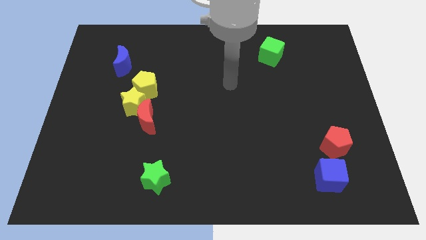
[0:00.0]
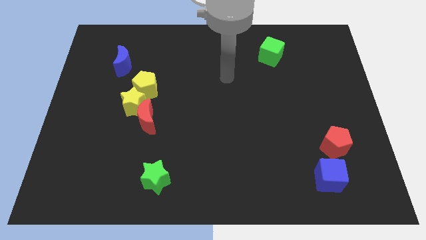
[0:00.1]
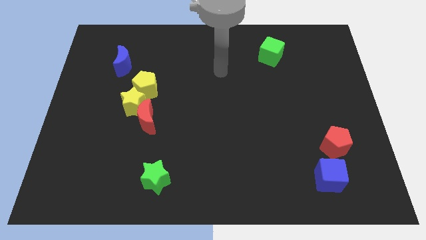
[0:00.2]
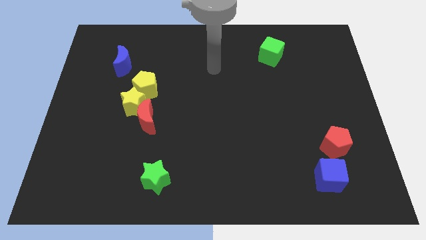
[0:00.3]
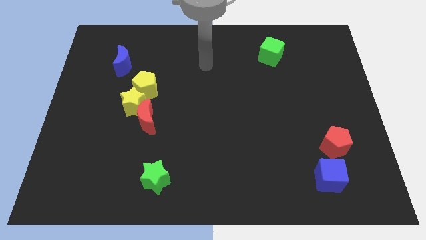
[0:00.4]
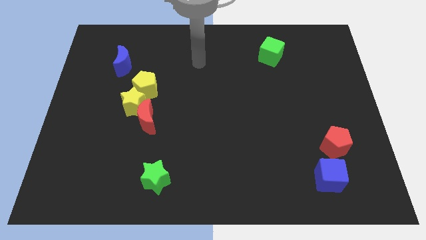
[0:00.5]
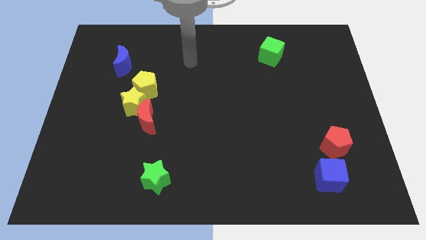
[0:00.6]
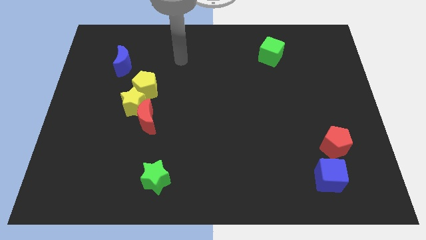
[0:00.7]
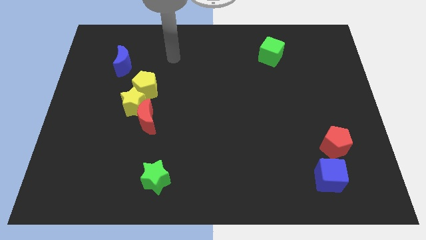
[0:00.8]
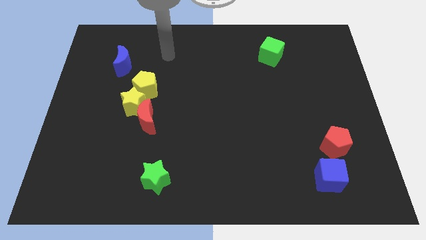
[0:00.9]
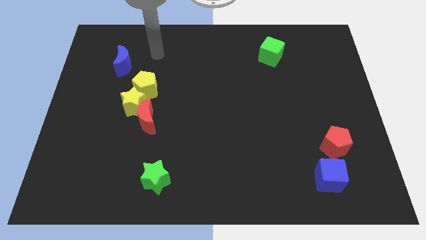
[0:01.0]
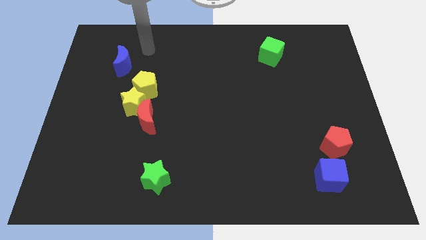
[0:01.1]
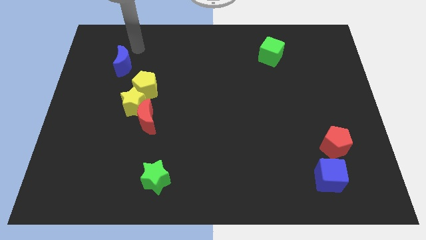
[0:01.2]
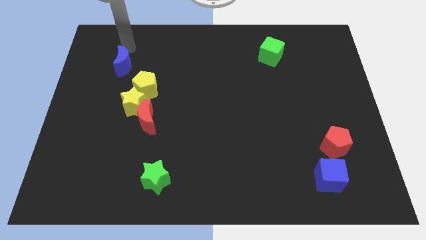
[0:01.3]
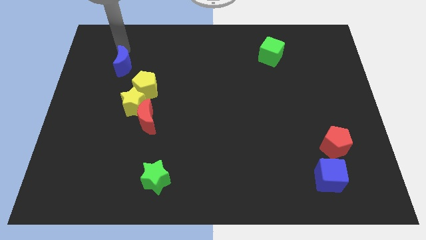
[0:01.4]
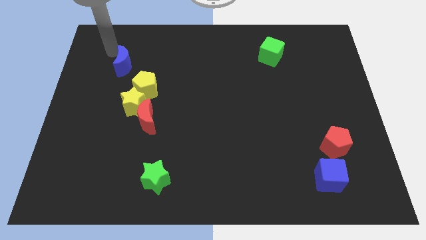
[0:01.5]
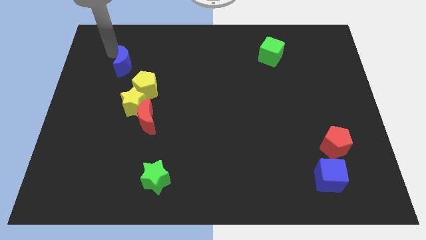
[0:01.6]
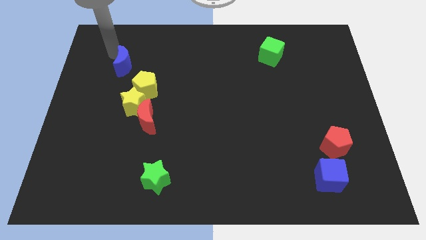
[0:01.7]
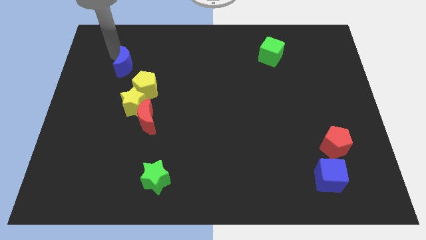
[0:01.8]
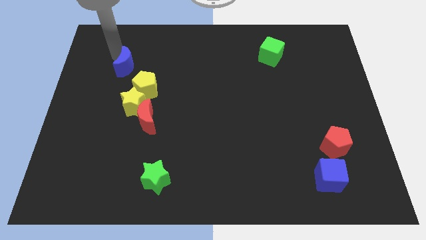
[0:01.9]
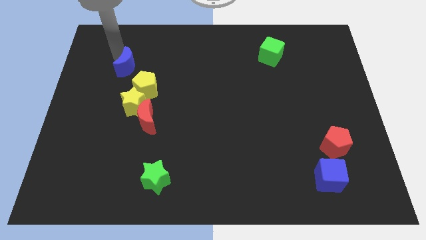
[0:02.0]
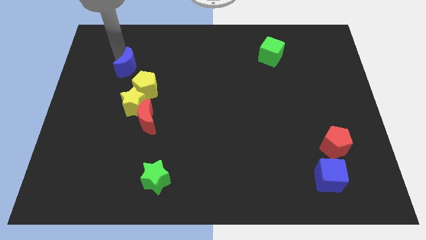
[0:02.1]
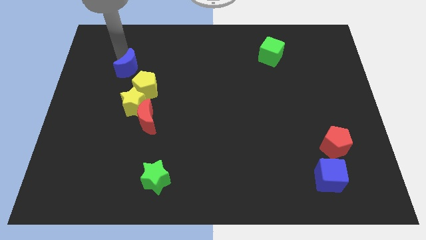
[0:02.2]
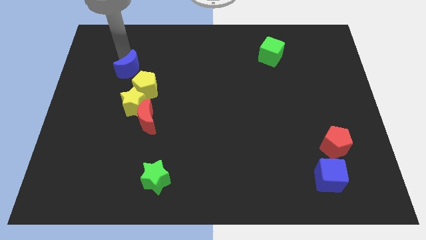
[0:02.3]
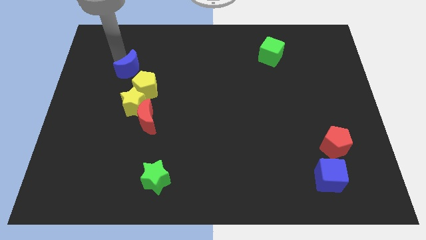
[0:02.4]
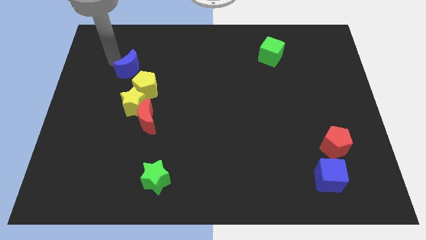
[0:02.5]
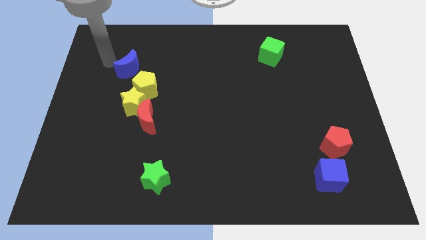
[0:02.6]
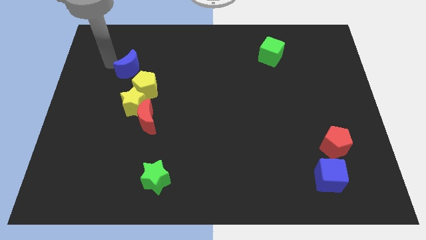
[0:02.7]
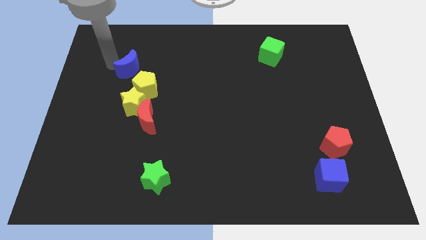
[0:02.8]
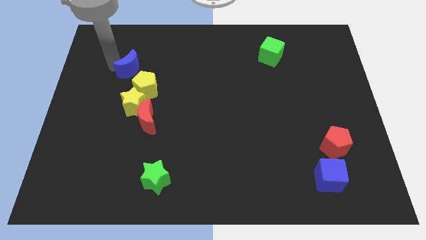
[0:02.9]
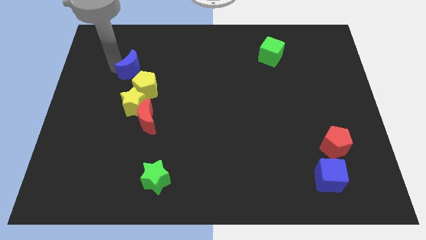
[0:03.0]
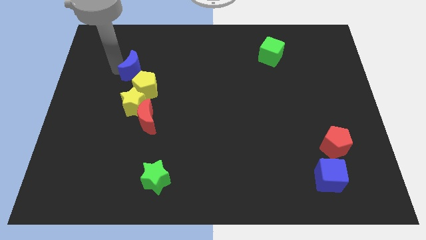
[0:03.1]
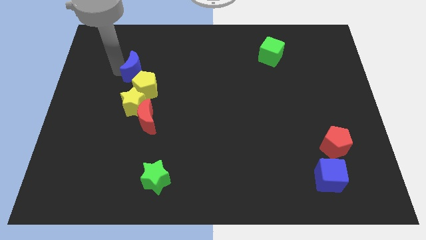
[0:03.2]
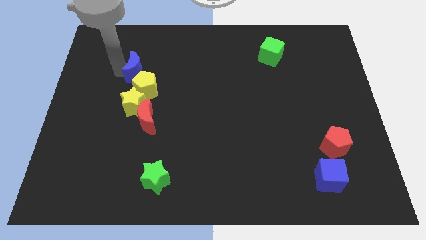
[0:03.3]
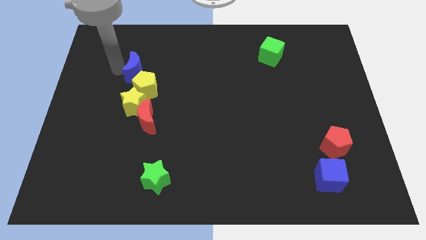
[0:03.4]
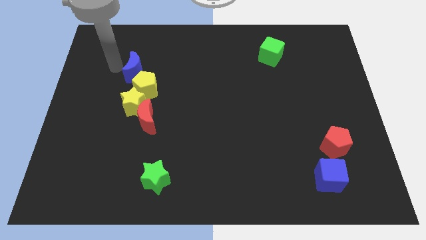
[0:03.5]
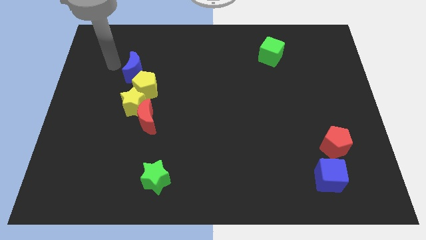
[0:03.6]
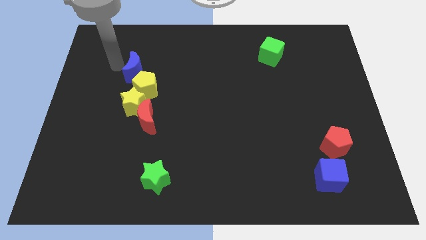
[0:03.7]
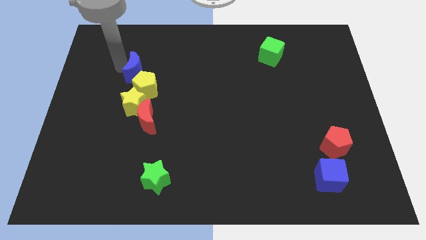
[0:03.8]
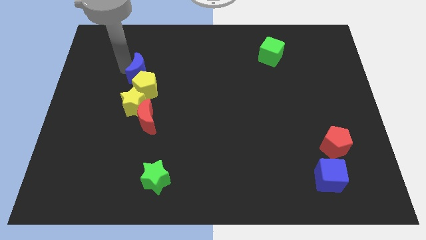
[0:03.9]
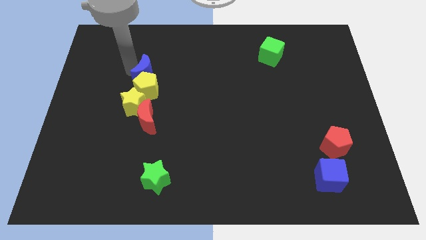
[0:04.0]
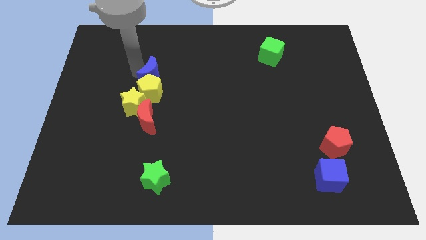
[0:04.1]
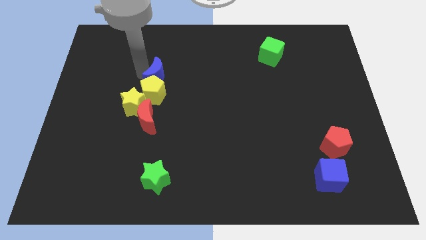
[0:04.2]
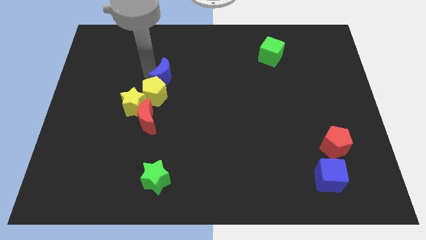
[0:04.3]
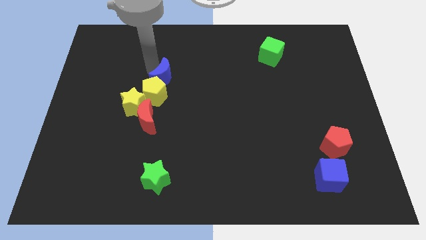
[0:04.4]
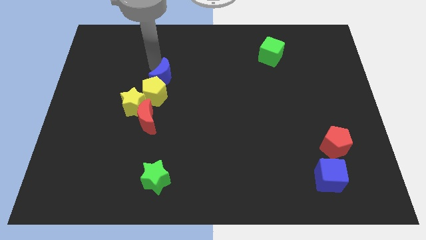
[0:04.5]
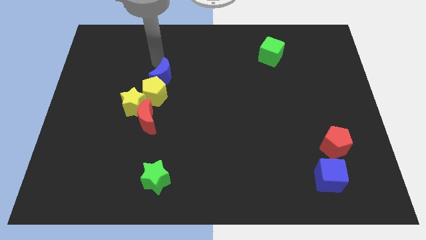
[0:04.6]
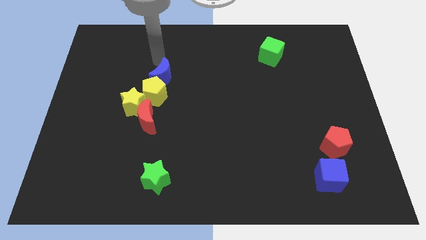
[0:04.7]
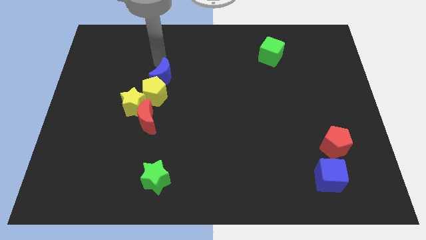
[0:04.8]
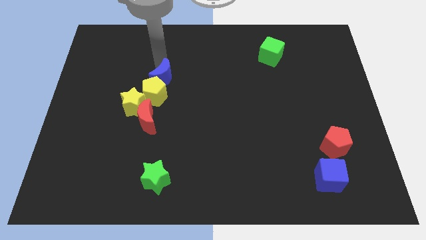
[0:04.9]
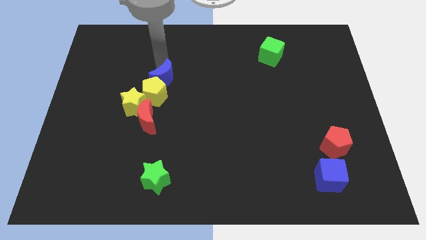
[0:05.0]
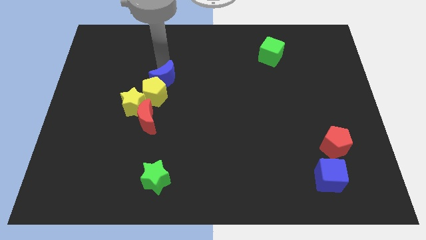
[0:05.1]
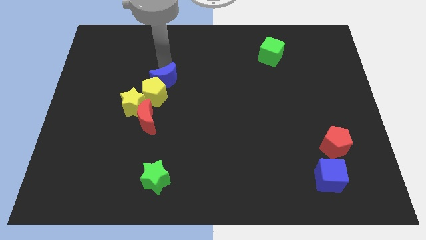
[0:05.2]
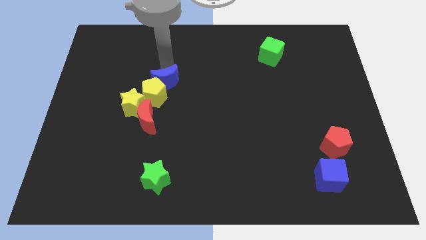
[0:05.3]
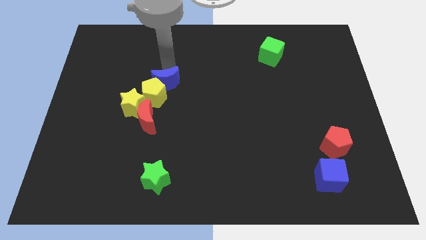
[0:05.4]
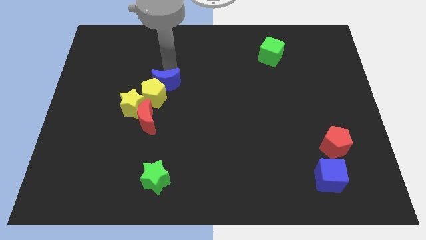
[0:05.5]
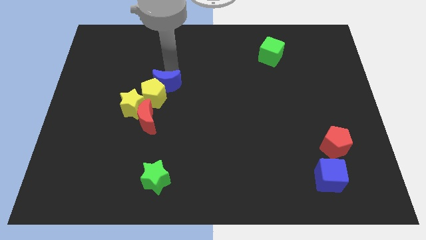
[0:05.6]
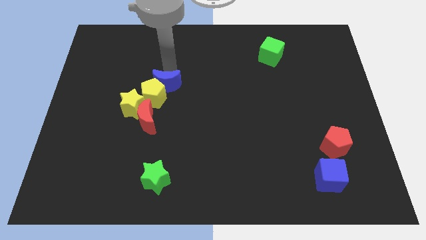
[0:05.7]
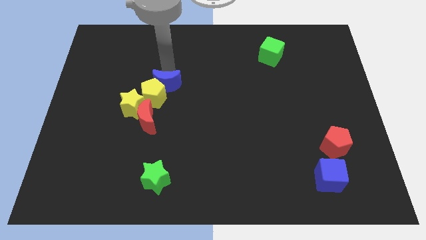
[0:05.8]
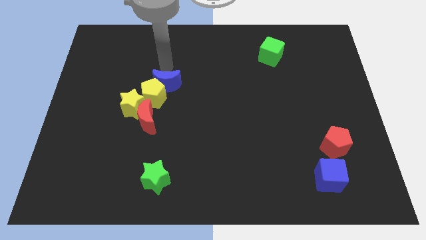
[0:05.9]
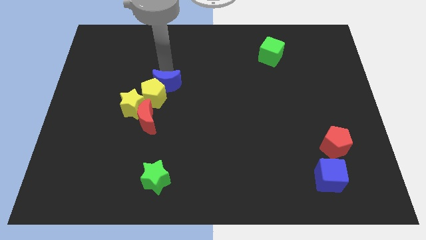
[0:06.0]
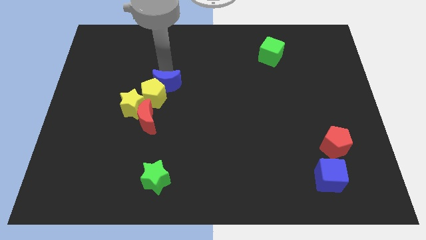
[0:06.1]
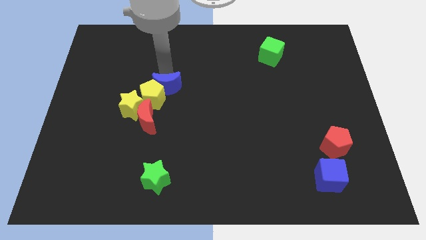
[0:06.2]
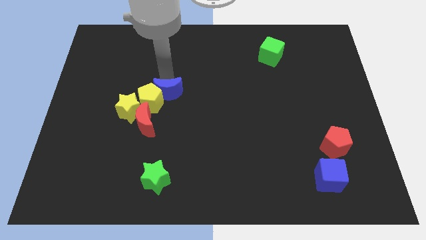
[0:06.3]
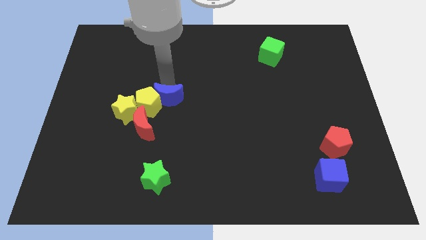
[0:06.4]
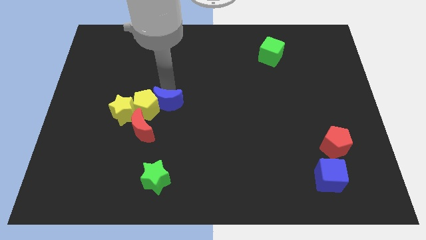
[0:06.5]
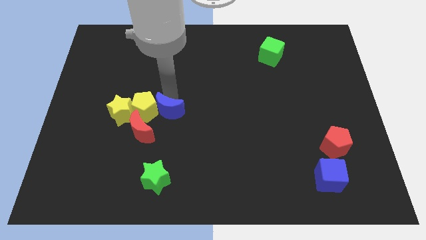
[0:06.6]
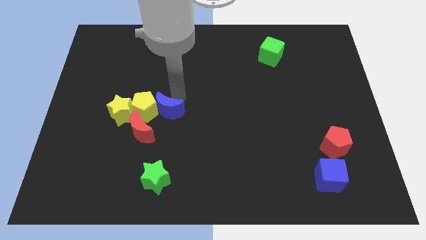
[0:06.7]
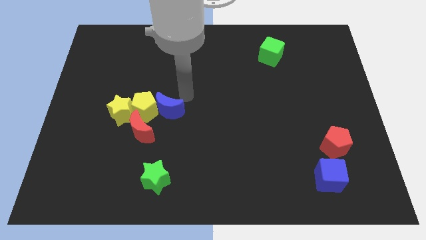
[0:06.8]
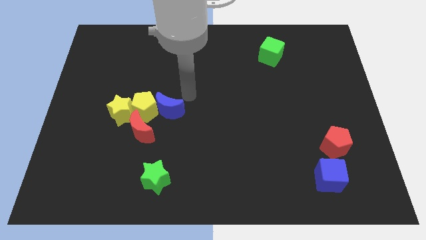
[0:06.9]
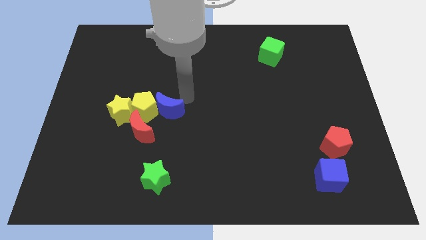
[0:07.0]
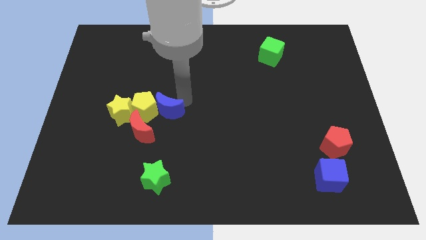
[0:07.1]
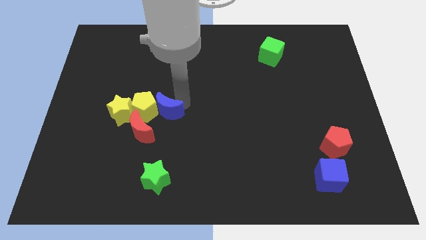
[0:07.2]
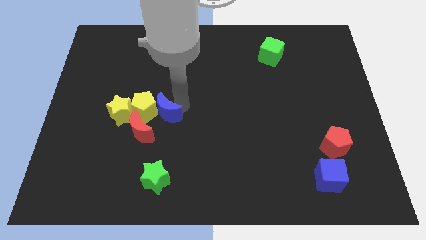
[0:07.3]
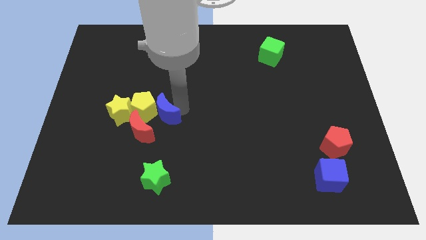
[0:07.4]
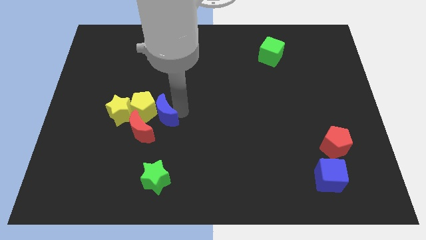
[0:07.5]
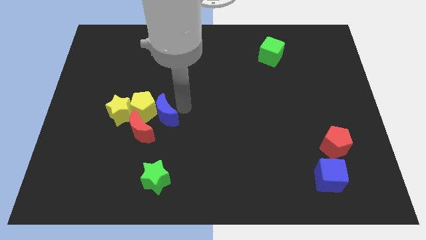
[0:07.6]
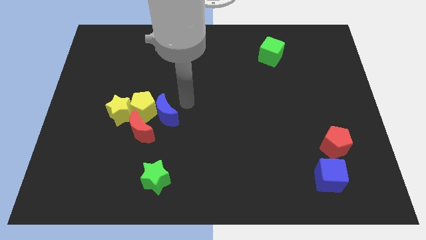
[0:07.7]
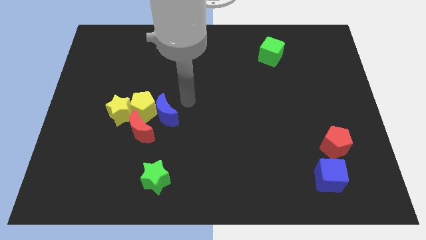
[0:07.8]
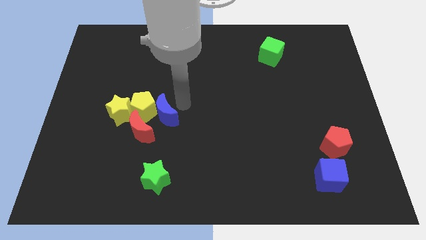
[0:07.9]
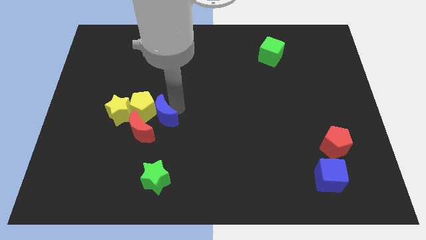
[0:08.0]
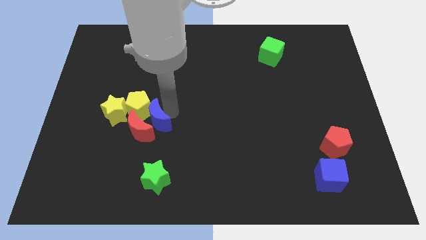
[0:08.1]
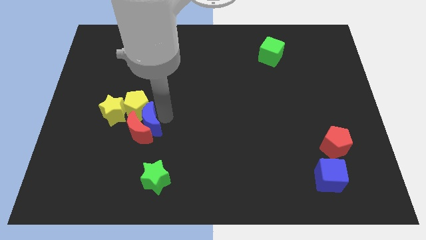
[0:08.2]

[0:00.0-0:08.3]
slide the blue moon to the bottom right side of the yellow star
